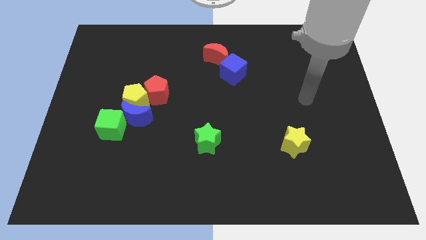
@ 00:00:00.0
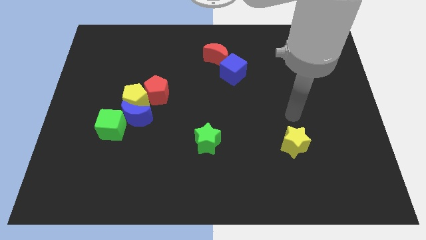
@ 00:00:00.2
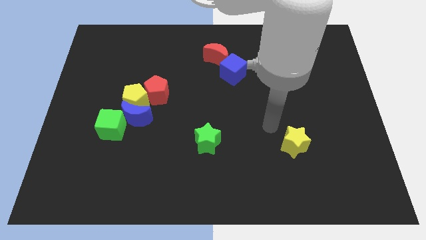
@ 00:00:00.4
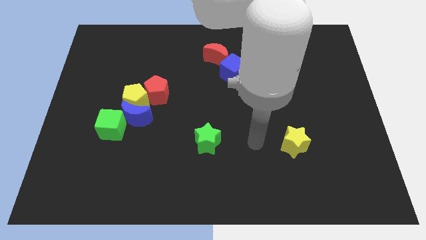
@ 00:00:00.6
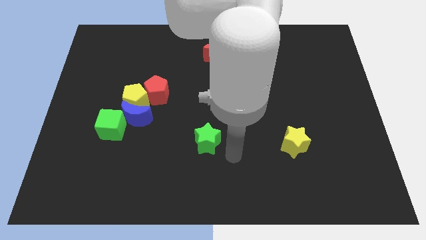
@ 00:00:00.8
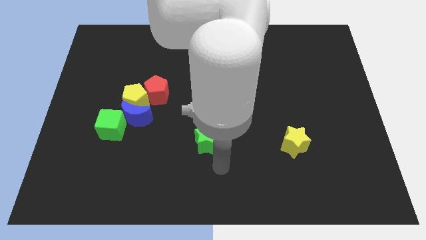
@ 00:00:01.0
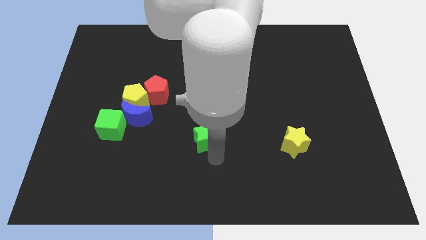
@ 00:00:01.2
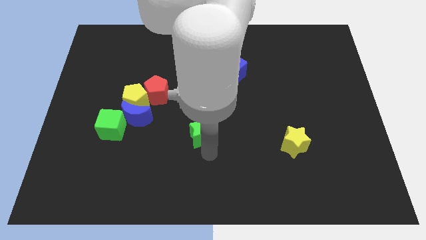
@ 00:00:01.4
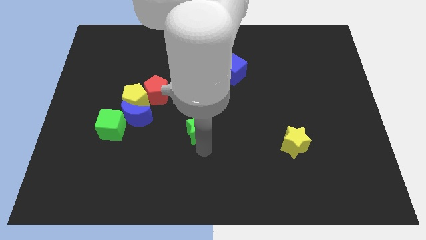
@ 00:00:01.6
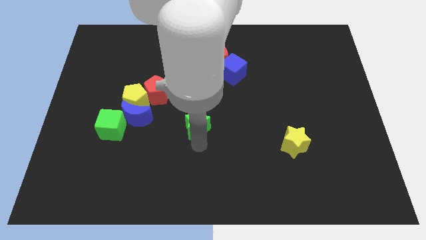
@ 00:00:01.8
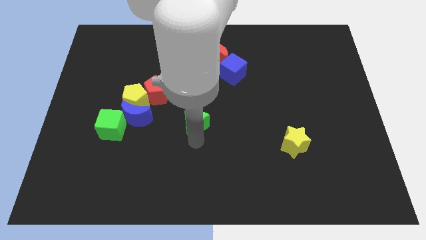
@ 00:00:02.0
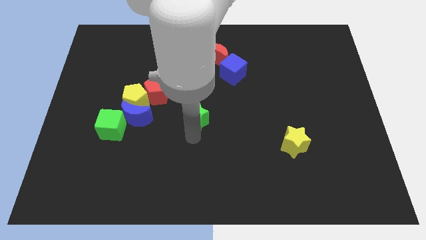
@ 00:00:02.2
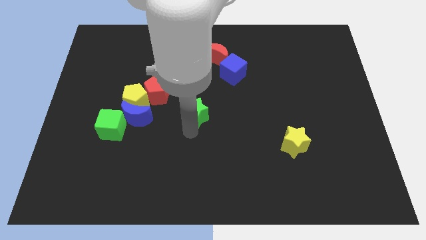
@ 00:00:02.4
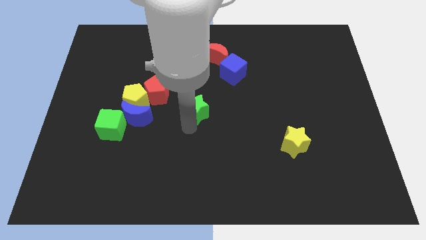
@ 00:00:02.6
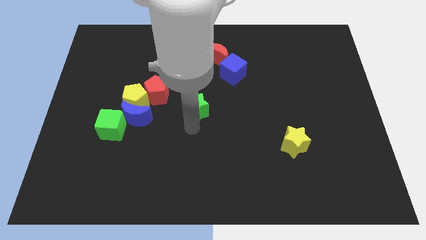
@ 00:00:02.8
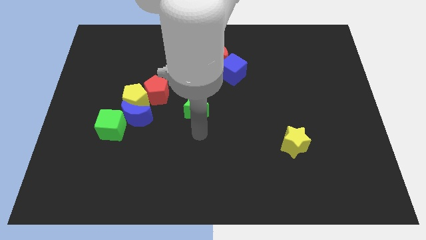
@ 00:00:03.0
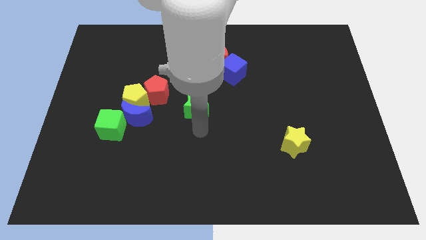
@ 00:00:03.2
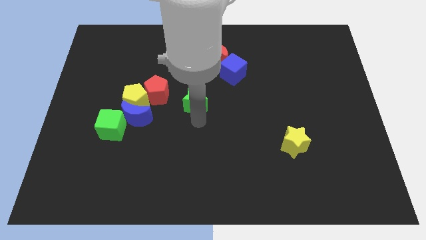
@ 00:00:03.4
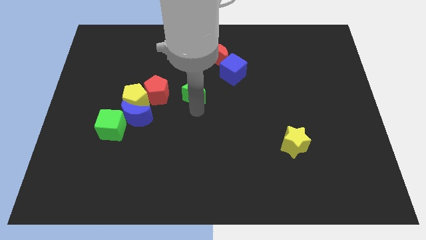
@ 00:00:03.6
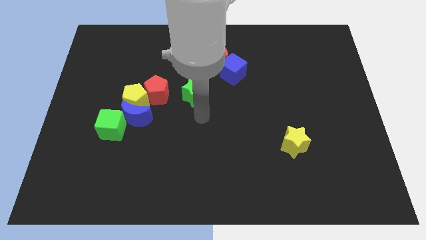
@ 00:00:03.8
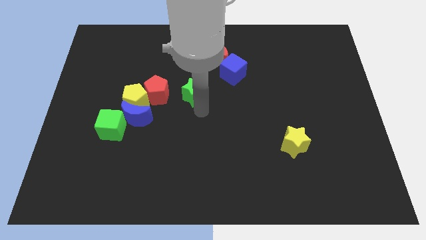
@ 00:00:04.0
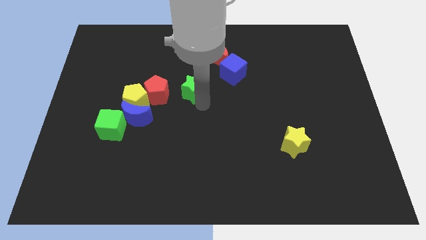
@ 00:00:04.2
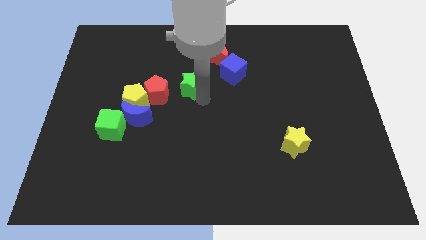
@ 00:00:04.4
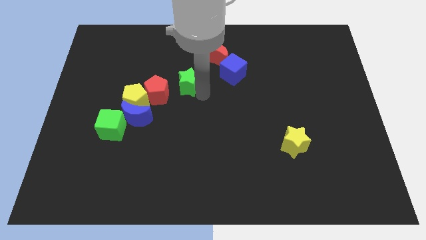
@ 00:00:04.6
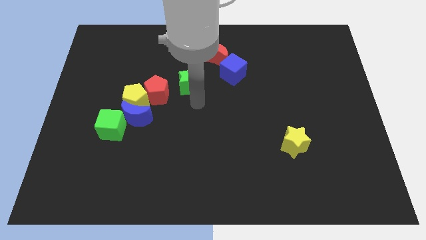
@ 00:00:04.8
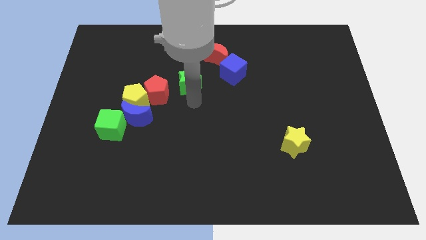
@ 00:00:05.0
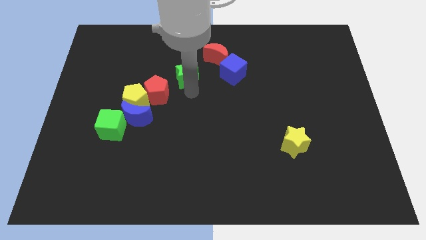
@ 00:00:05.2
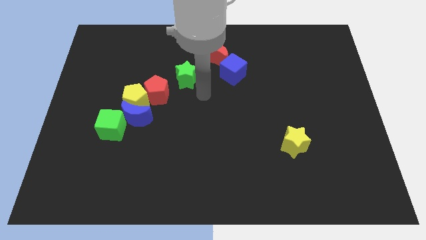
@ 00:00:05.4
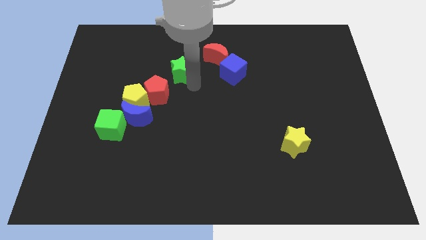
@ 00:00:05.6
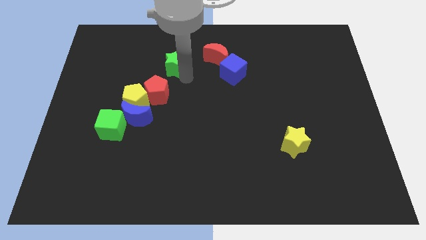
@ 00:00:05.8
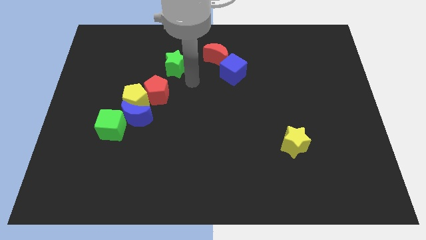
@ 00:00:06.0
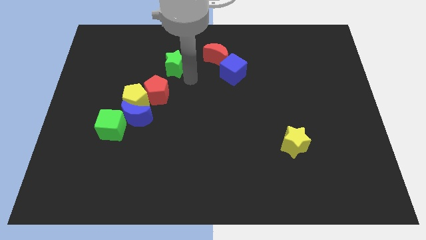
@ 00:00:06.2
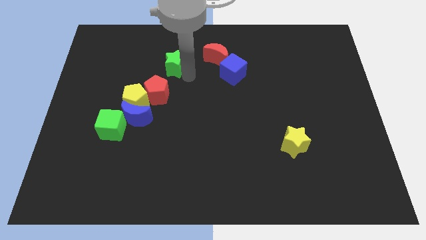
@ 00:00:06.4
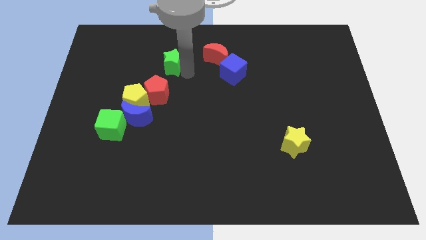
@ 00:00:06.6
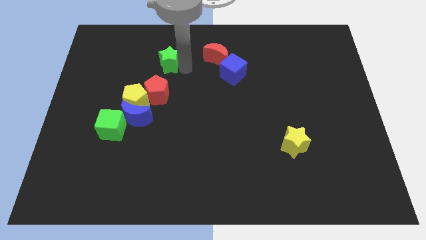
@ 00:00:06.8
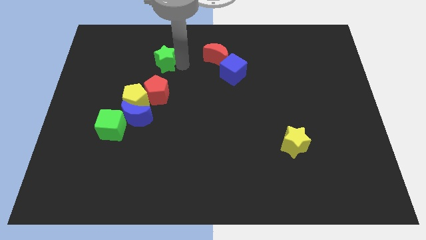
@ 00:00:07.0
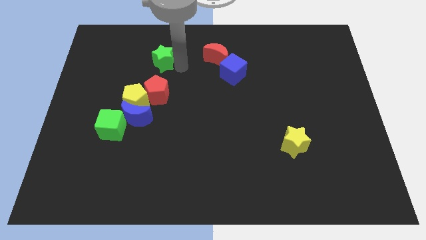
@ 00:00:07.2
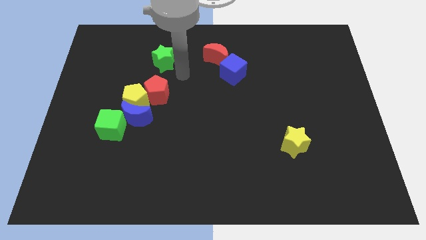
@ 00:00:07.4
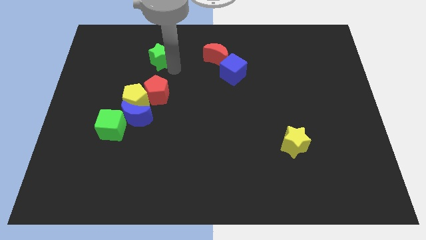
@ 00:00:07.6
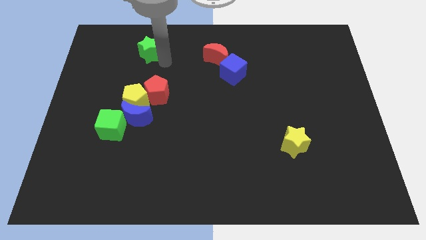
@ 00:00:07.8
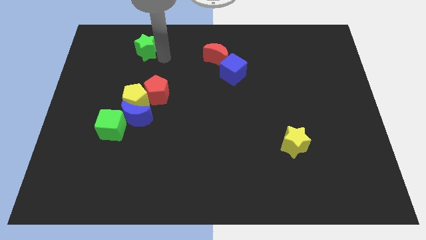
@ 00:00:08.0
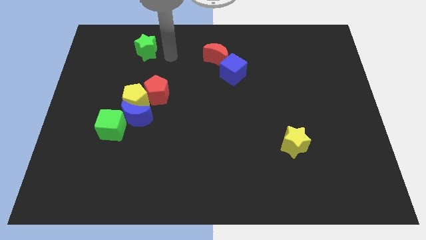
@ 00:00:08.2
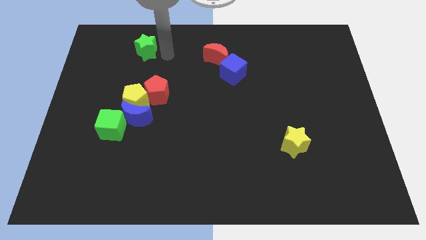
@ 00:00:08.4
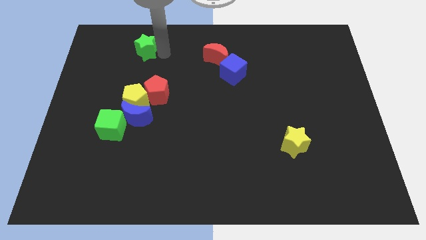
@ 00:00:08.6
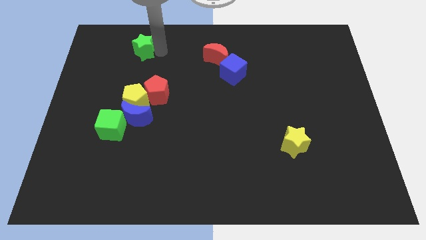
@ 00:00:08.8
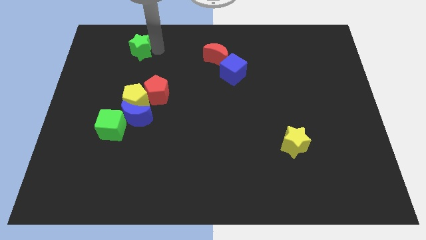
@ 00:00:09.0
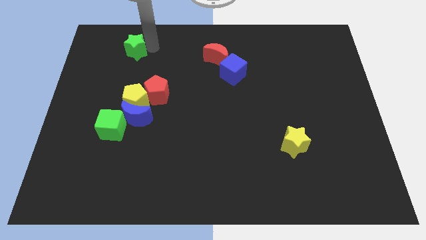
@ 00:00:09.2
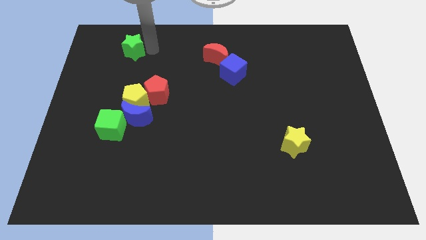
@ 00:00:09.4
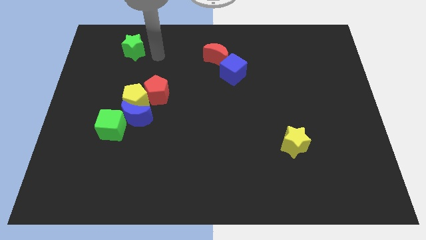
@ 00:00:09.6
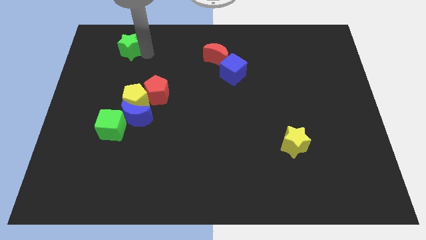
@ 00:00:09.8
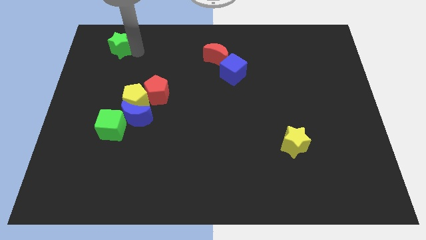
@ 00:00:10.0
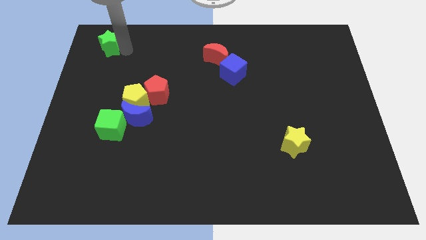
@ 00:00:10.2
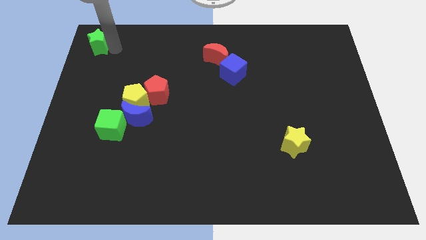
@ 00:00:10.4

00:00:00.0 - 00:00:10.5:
push the green star to the upper left corner
